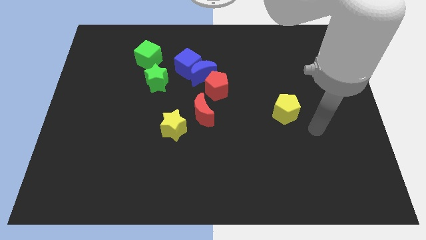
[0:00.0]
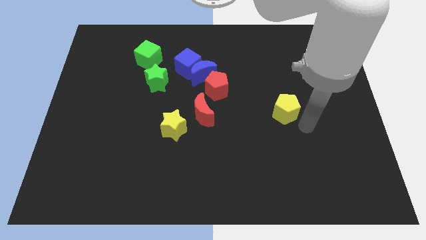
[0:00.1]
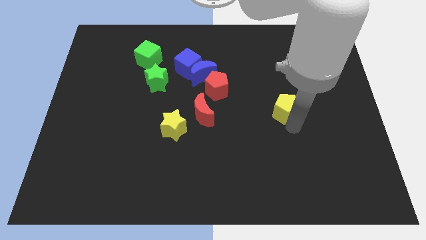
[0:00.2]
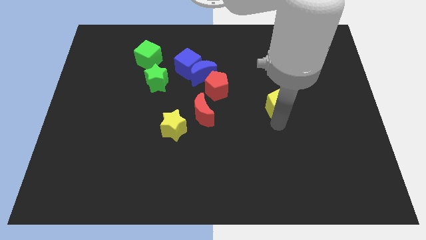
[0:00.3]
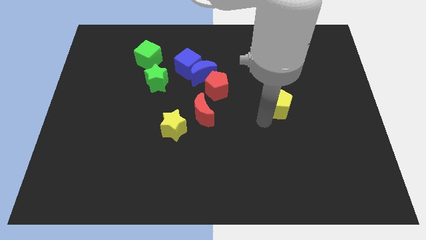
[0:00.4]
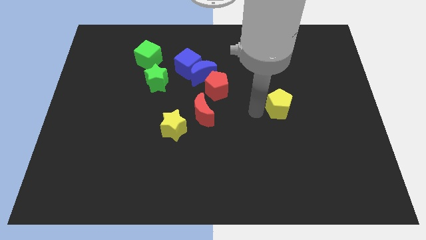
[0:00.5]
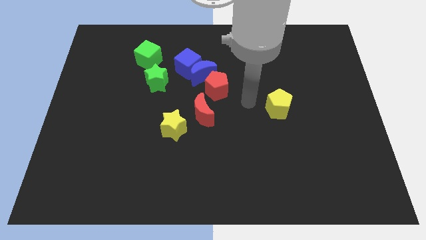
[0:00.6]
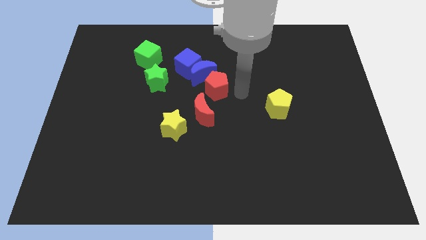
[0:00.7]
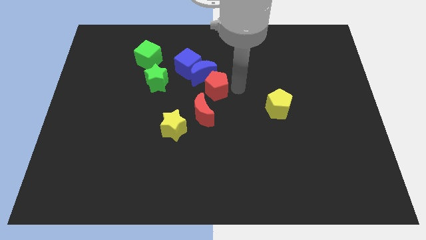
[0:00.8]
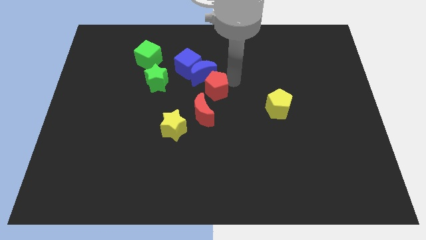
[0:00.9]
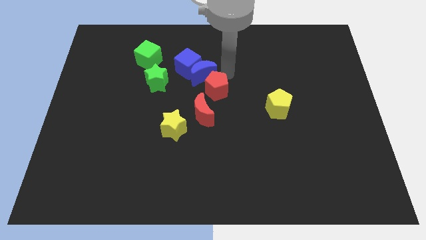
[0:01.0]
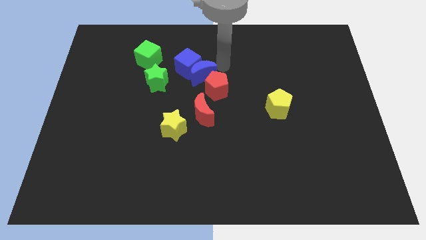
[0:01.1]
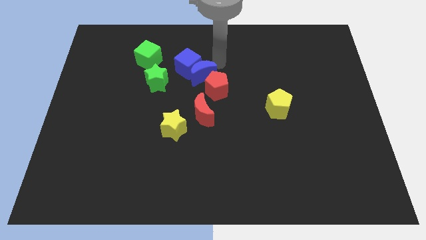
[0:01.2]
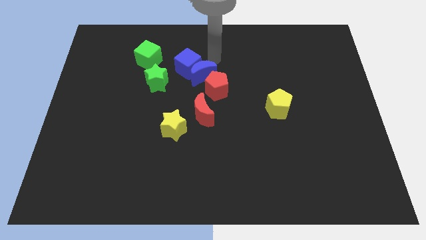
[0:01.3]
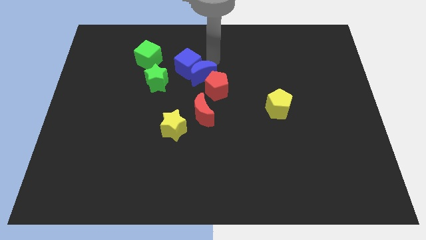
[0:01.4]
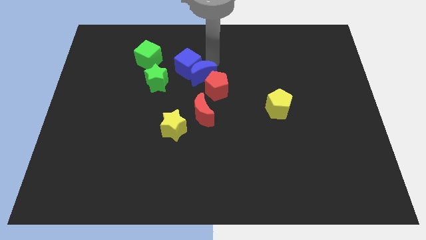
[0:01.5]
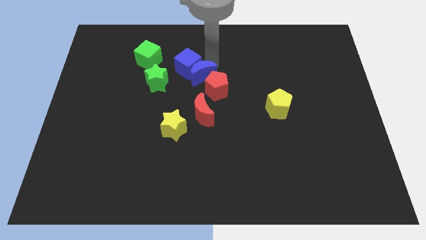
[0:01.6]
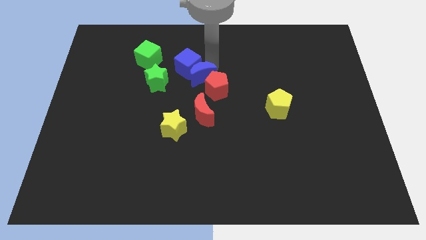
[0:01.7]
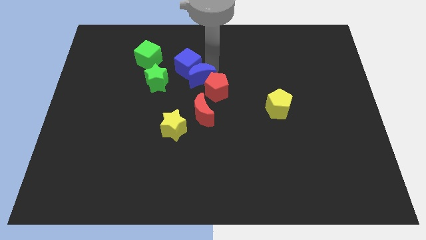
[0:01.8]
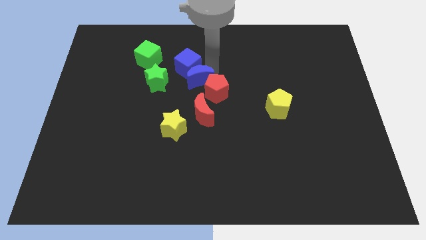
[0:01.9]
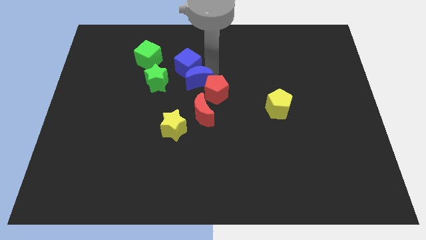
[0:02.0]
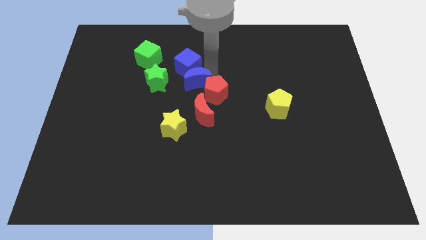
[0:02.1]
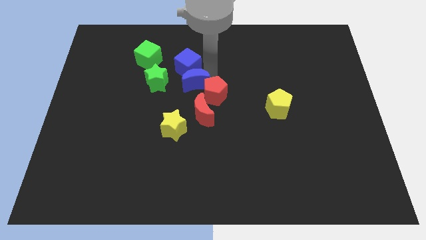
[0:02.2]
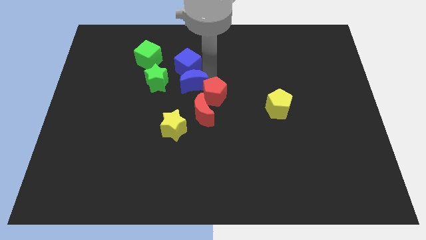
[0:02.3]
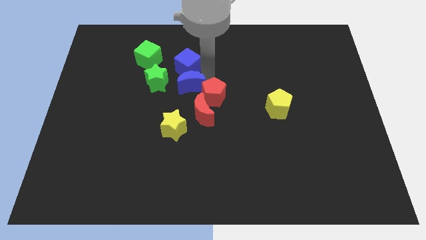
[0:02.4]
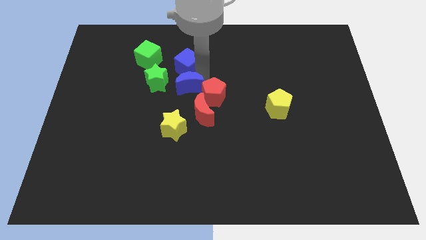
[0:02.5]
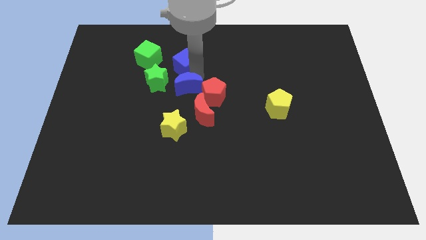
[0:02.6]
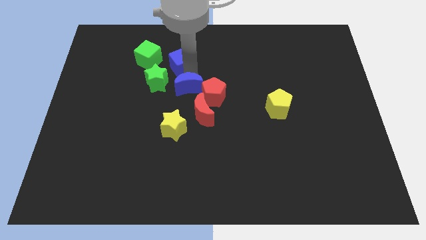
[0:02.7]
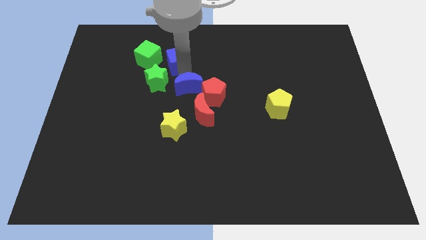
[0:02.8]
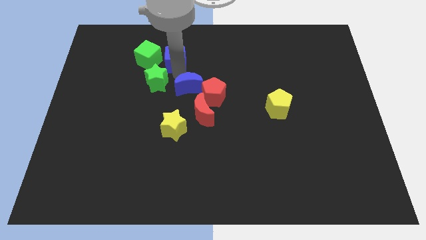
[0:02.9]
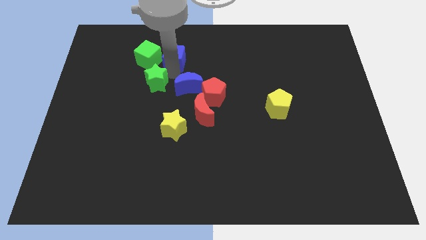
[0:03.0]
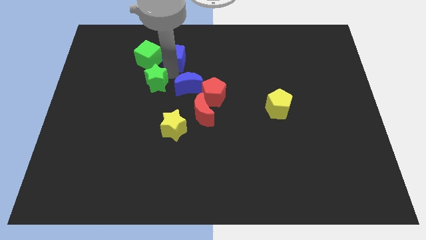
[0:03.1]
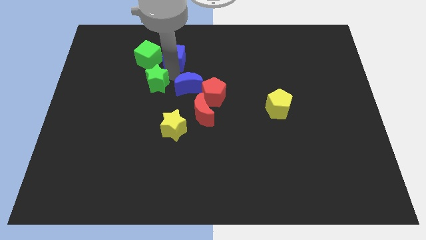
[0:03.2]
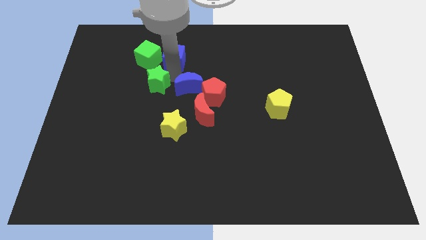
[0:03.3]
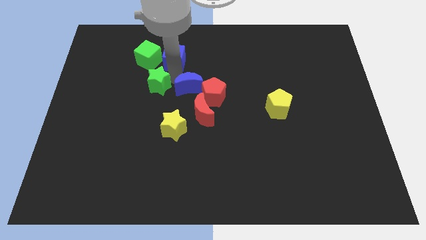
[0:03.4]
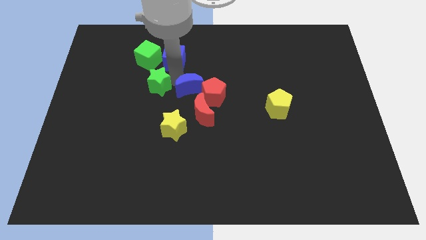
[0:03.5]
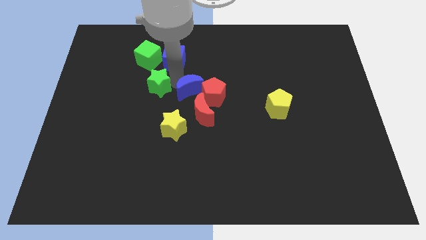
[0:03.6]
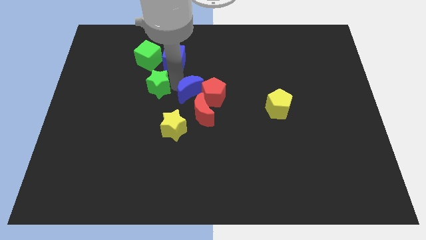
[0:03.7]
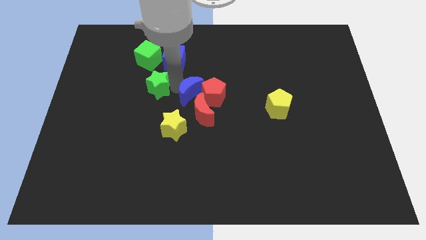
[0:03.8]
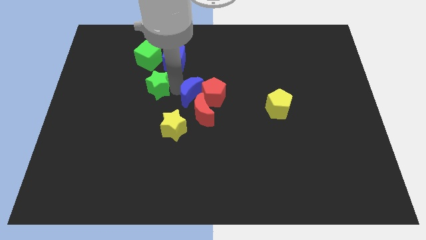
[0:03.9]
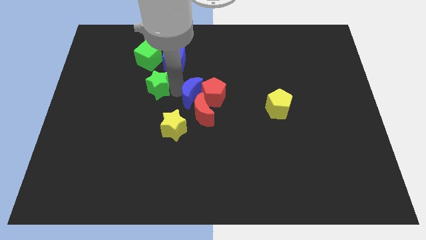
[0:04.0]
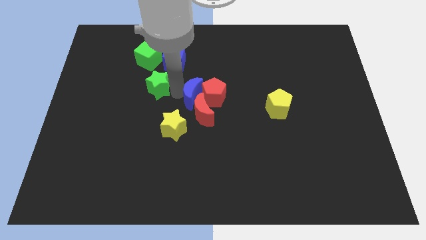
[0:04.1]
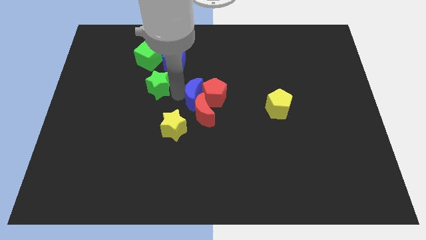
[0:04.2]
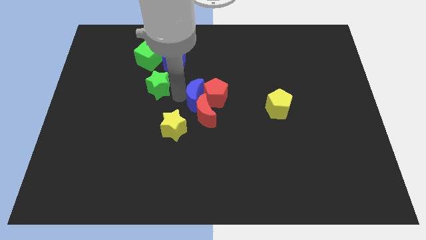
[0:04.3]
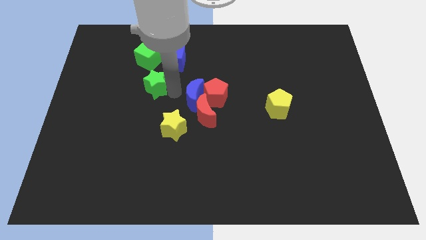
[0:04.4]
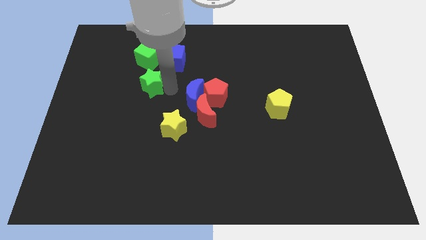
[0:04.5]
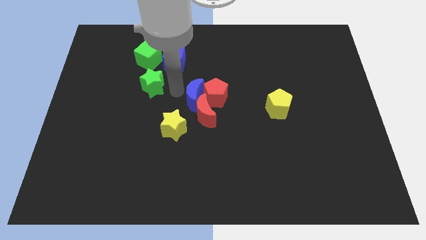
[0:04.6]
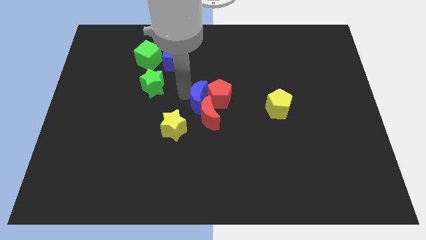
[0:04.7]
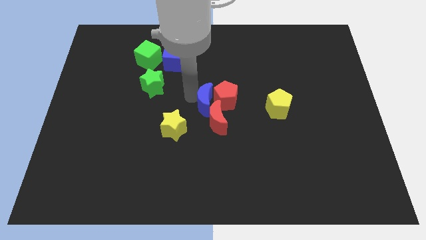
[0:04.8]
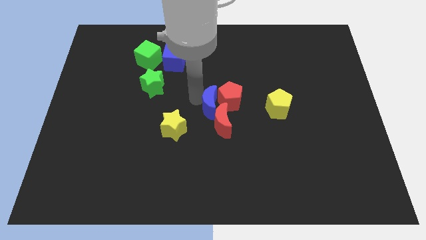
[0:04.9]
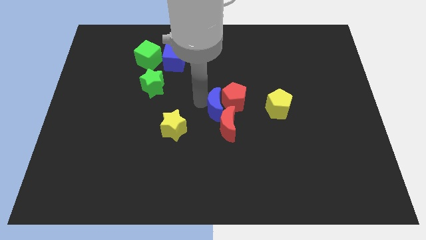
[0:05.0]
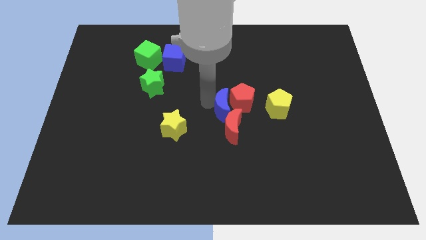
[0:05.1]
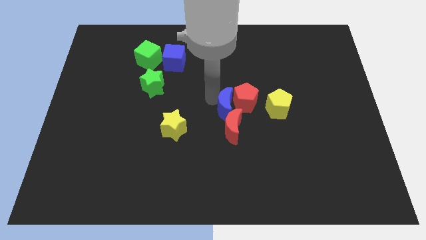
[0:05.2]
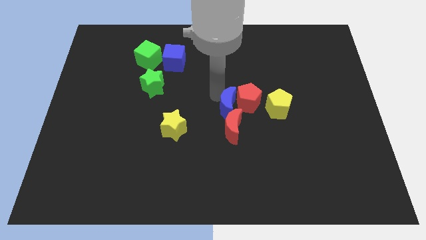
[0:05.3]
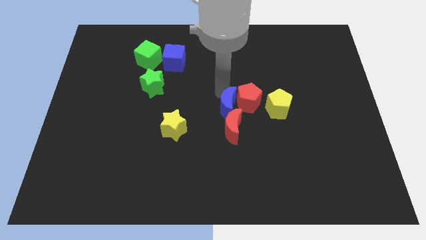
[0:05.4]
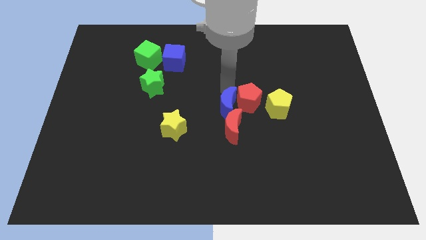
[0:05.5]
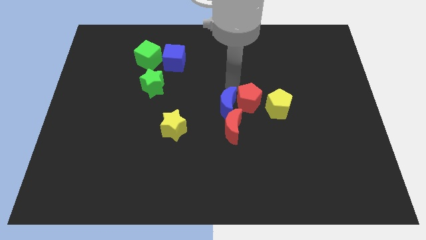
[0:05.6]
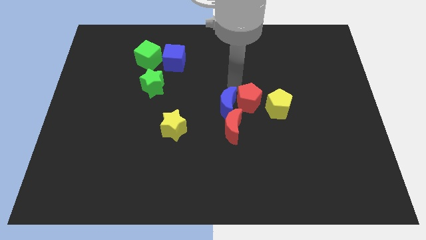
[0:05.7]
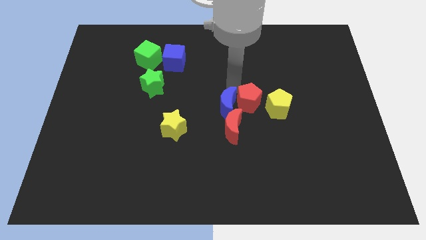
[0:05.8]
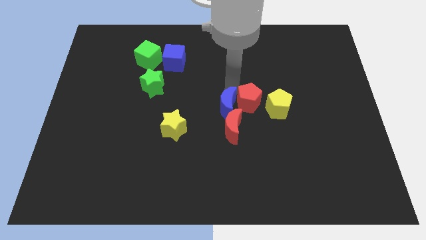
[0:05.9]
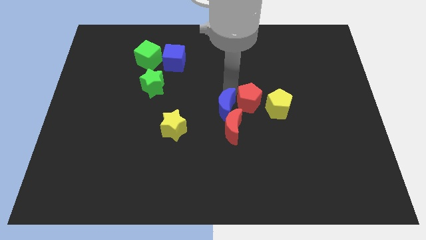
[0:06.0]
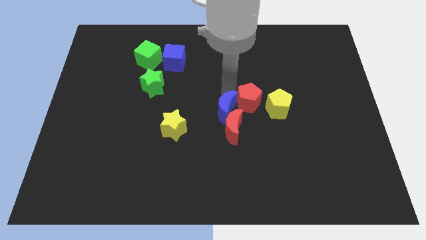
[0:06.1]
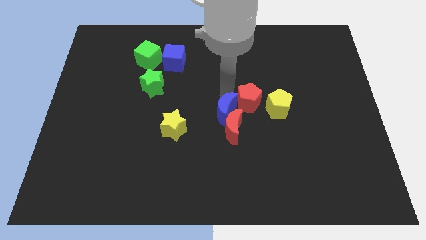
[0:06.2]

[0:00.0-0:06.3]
put the blue moon just right of the yellow star

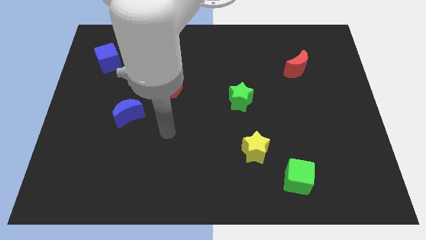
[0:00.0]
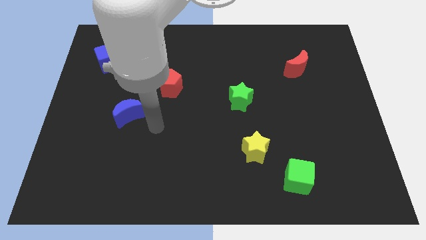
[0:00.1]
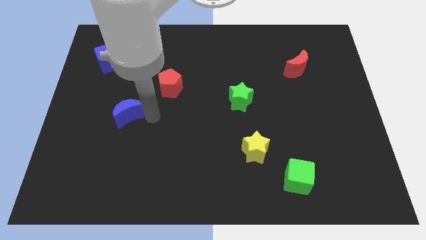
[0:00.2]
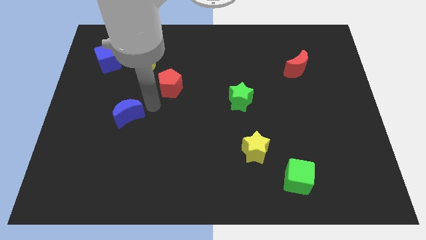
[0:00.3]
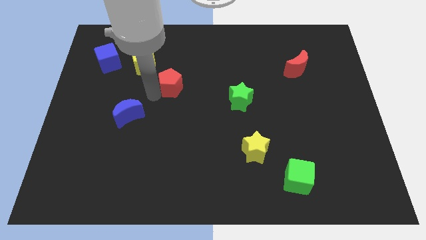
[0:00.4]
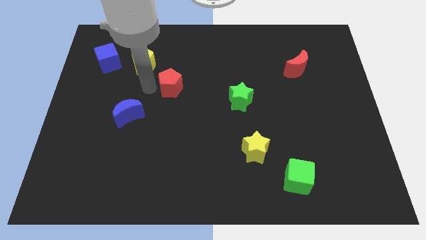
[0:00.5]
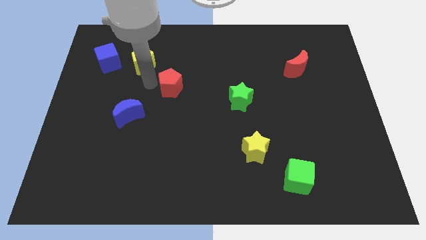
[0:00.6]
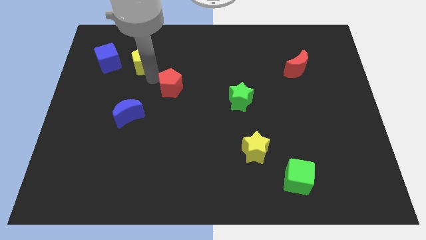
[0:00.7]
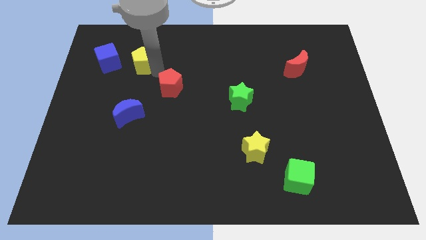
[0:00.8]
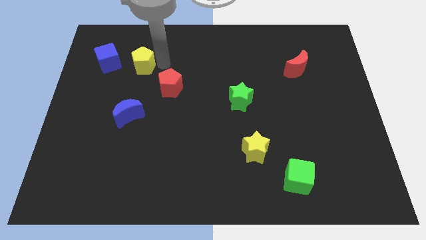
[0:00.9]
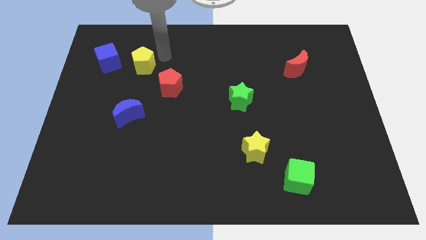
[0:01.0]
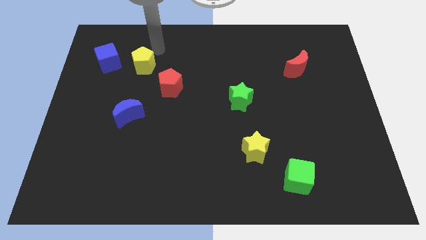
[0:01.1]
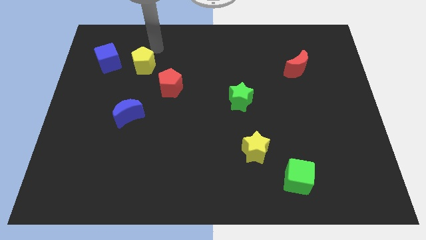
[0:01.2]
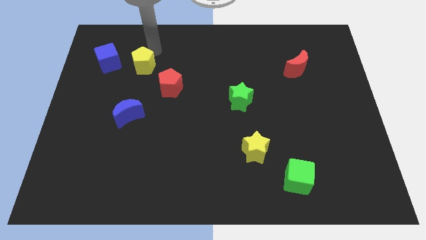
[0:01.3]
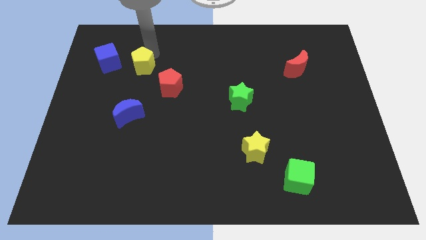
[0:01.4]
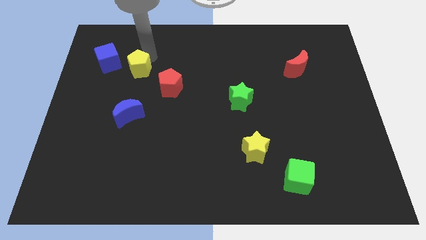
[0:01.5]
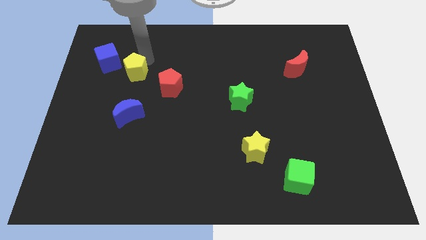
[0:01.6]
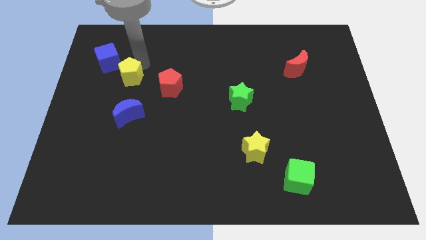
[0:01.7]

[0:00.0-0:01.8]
push the yellow pentagon to the left side of the red pentagon
